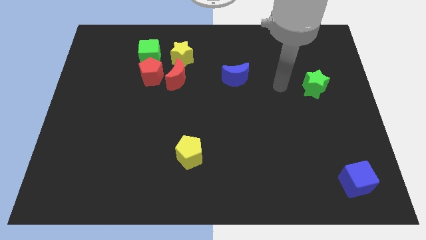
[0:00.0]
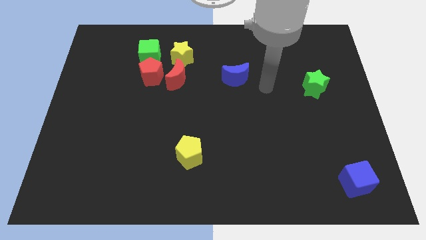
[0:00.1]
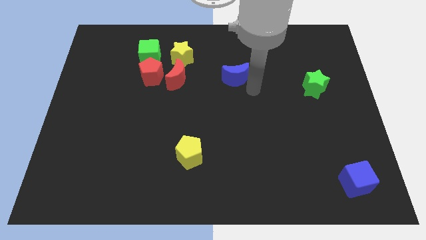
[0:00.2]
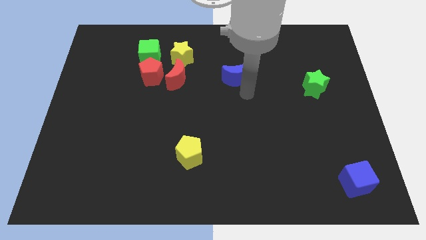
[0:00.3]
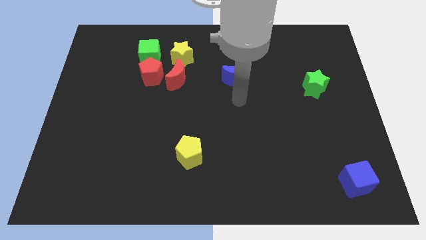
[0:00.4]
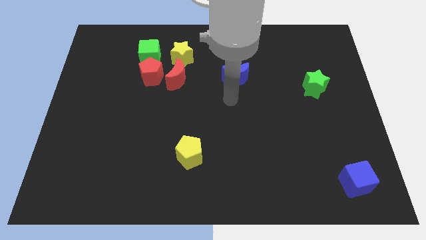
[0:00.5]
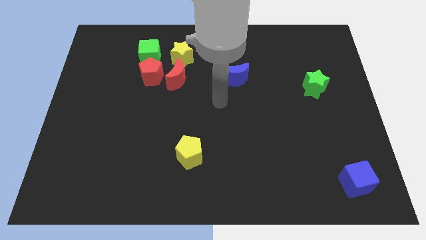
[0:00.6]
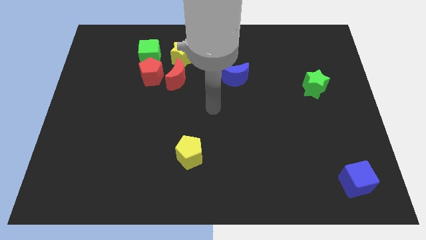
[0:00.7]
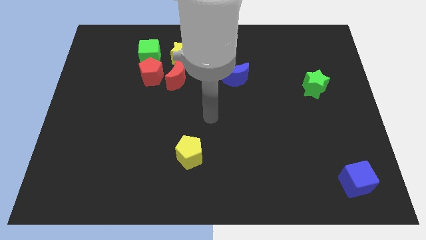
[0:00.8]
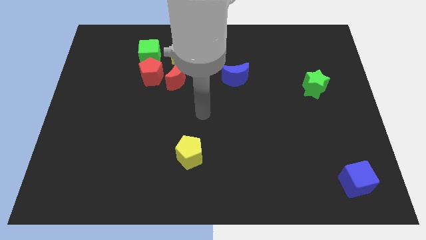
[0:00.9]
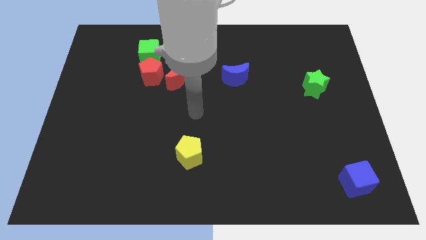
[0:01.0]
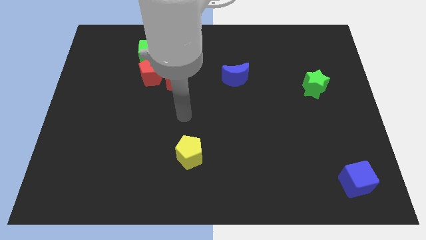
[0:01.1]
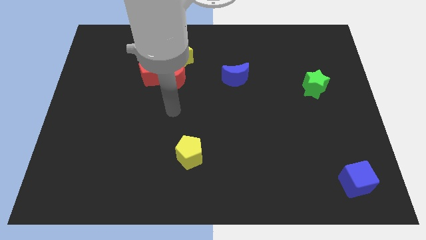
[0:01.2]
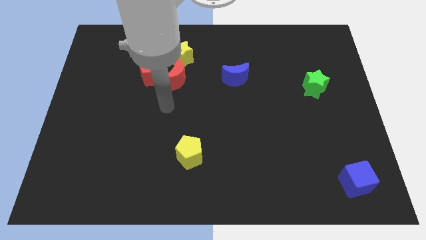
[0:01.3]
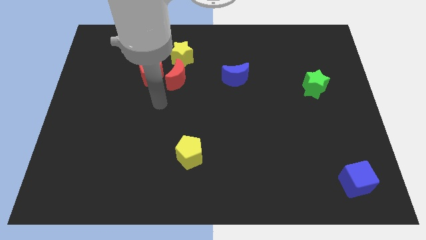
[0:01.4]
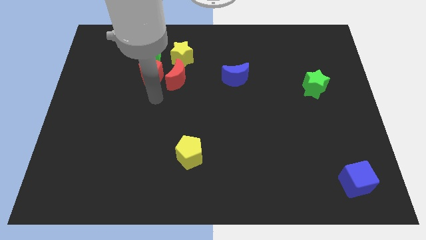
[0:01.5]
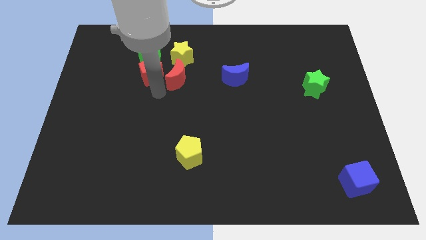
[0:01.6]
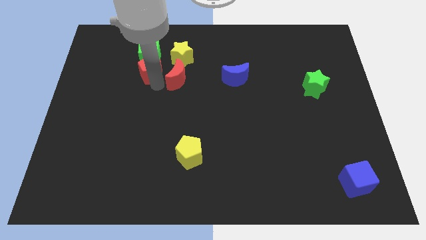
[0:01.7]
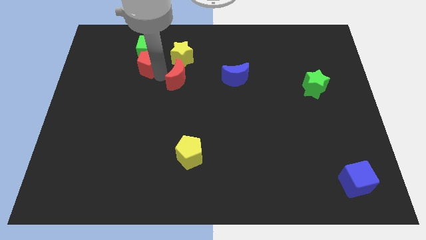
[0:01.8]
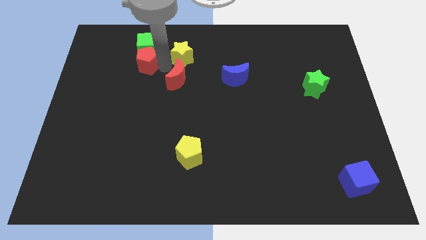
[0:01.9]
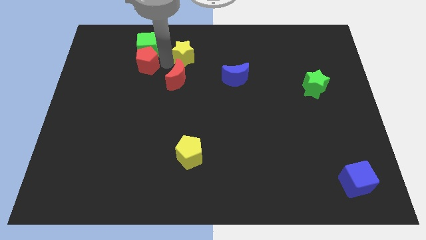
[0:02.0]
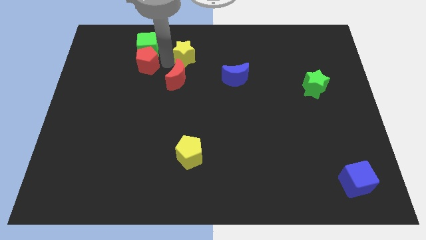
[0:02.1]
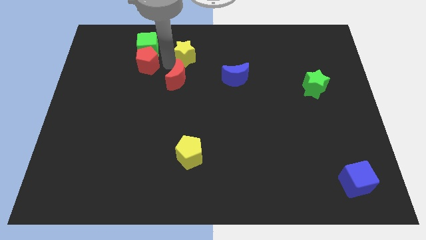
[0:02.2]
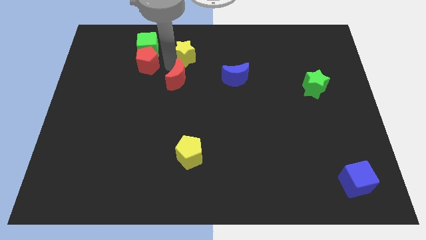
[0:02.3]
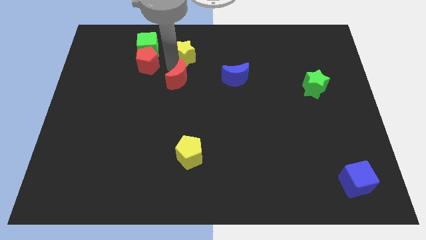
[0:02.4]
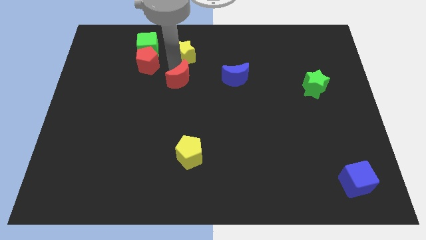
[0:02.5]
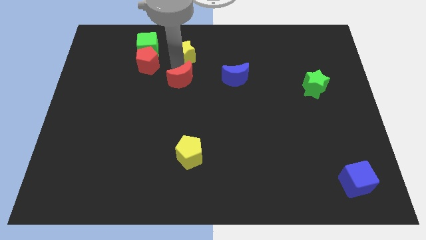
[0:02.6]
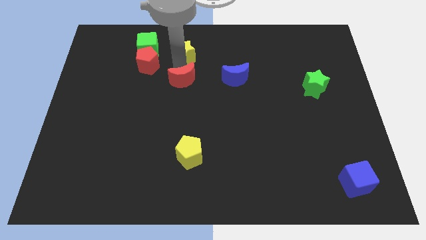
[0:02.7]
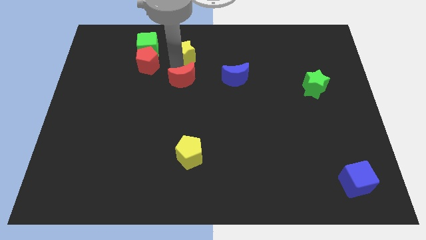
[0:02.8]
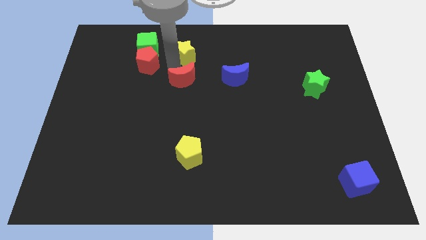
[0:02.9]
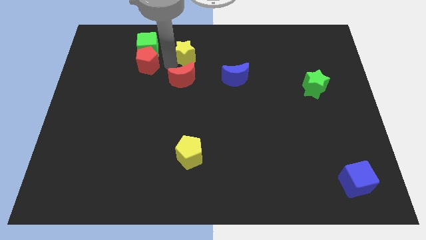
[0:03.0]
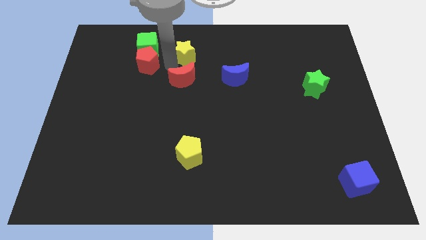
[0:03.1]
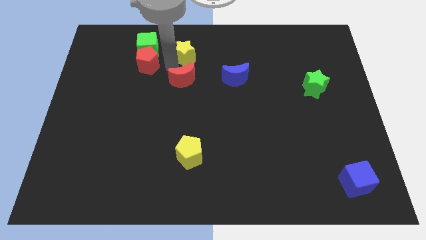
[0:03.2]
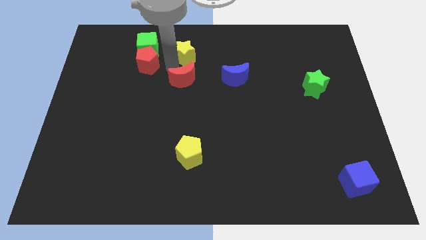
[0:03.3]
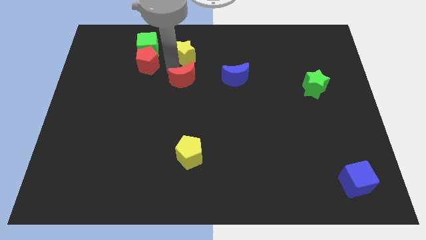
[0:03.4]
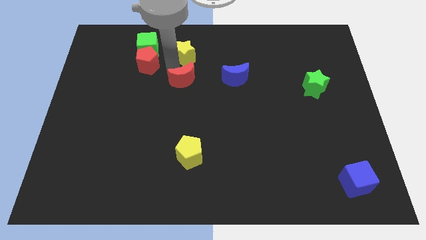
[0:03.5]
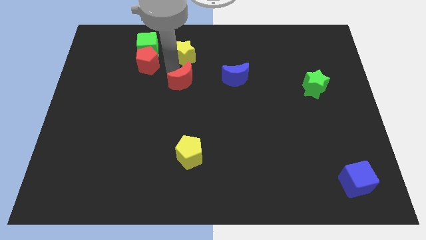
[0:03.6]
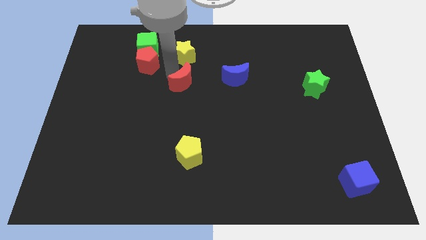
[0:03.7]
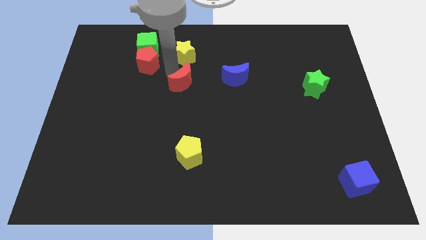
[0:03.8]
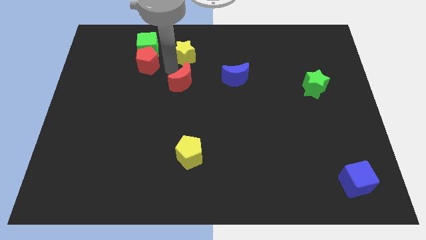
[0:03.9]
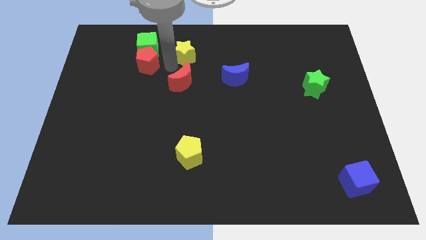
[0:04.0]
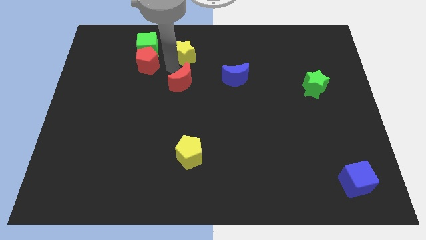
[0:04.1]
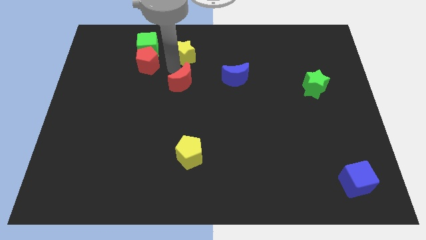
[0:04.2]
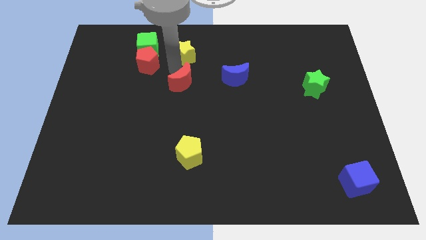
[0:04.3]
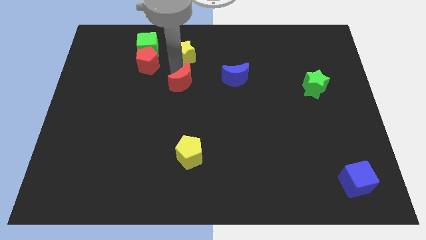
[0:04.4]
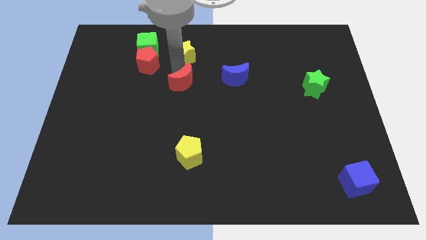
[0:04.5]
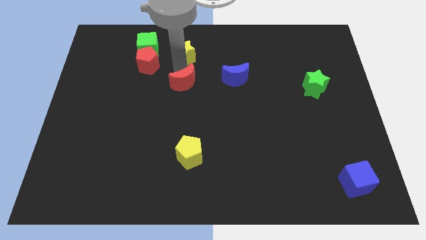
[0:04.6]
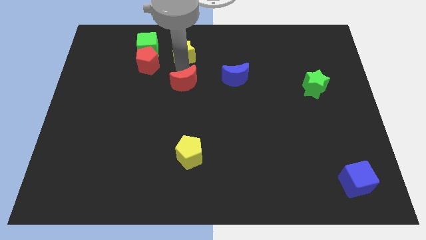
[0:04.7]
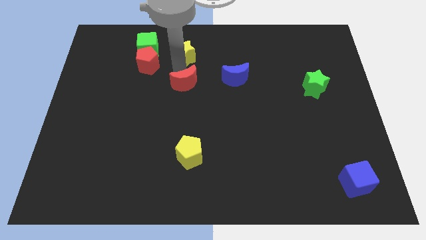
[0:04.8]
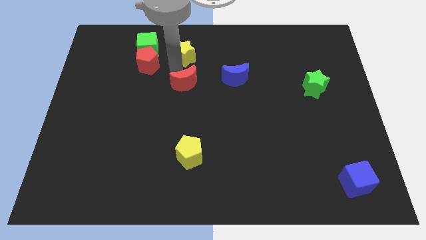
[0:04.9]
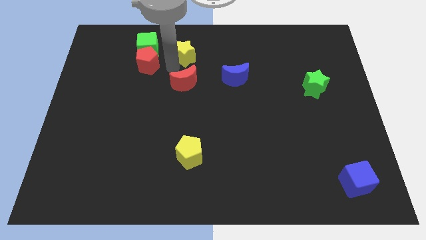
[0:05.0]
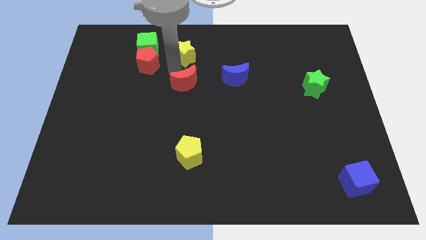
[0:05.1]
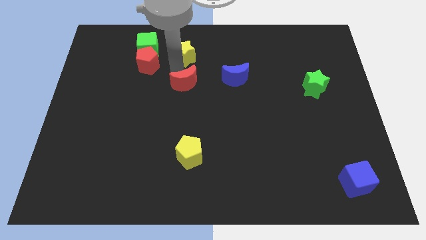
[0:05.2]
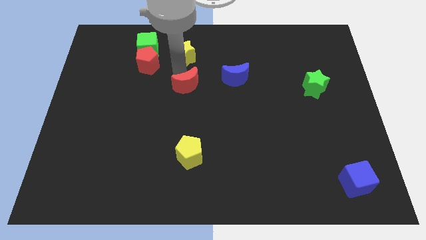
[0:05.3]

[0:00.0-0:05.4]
pull the red moon apart from the red pentagon and yellow star

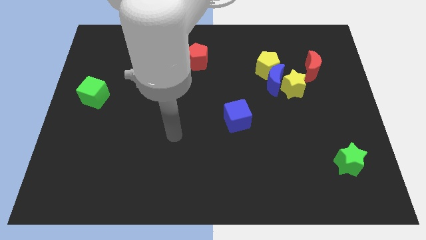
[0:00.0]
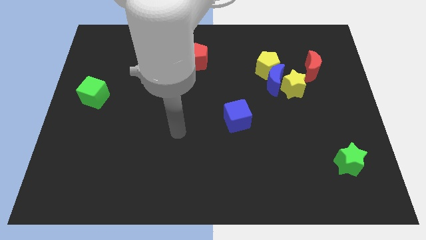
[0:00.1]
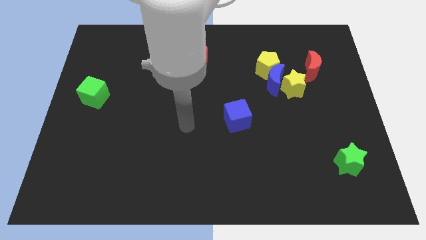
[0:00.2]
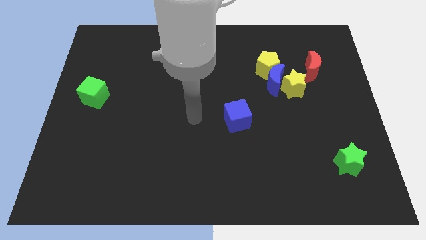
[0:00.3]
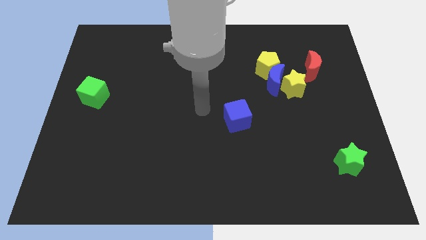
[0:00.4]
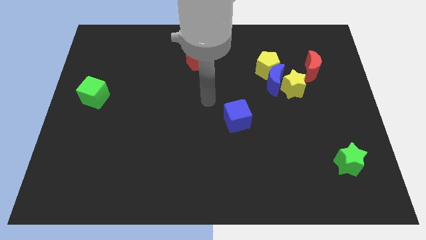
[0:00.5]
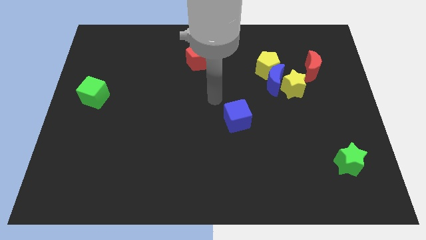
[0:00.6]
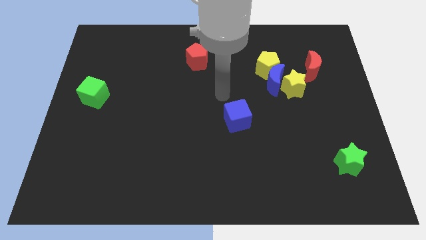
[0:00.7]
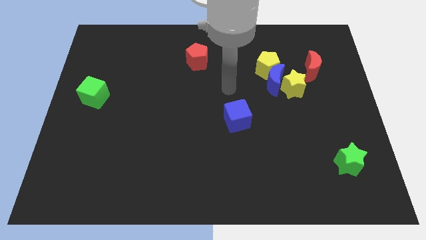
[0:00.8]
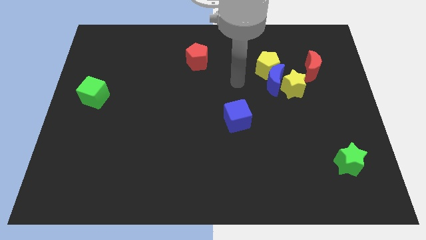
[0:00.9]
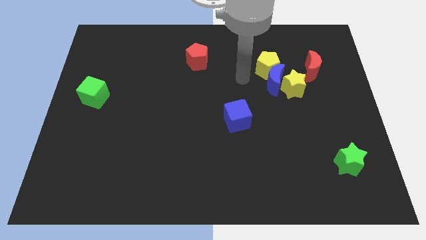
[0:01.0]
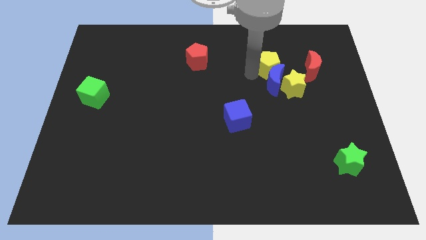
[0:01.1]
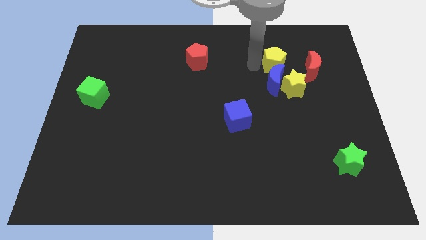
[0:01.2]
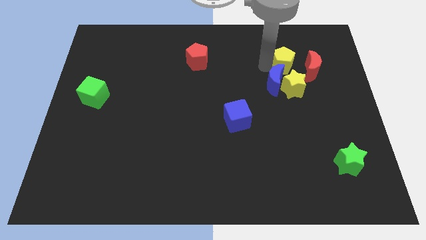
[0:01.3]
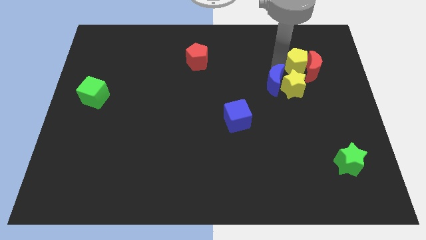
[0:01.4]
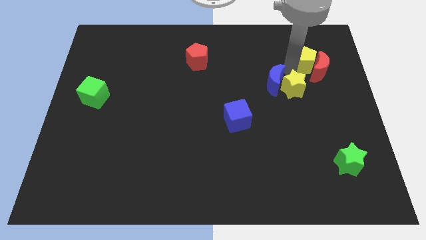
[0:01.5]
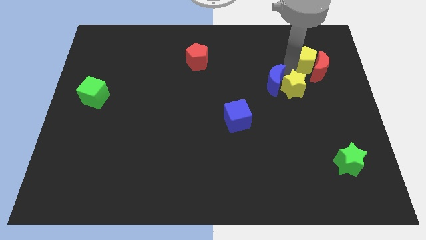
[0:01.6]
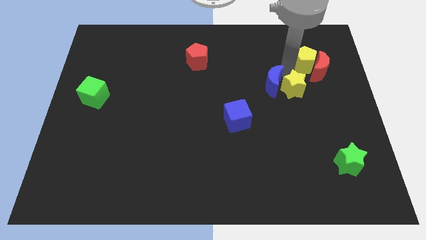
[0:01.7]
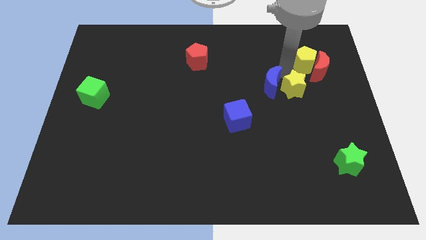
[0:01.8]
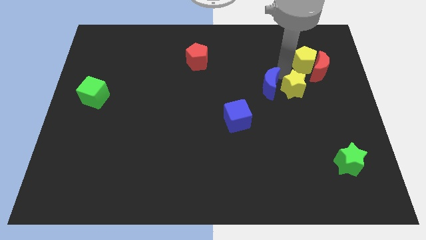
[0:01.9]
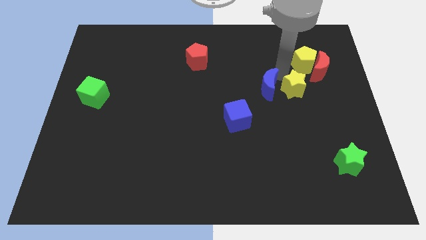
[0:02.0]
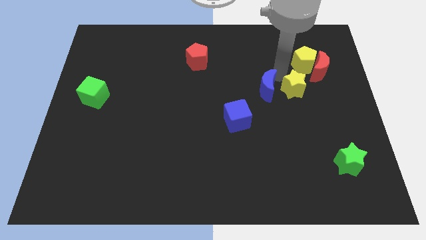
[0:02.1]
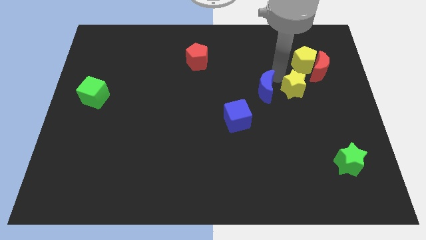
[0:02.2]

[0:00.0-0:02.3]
move the blue moon away from the yellow pentagon and yellow star

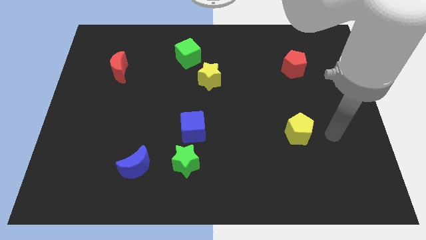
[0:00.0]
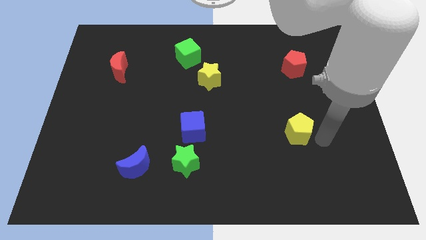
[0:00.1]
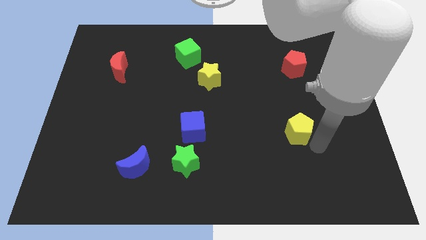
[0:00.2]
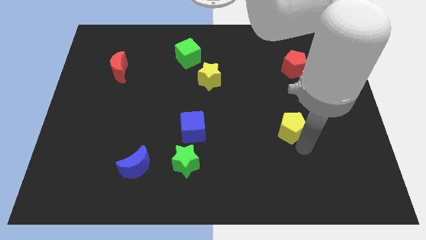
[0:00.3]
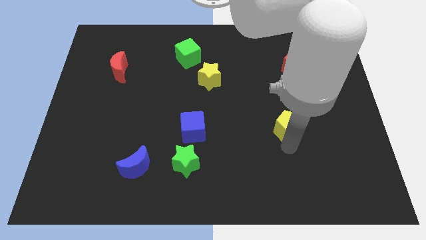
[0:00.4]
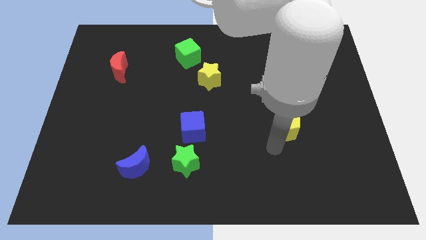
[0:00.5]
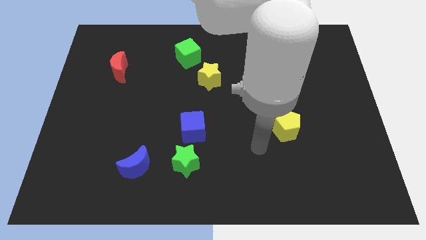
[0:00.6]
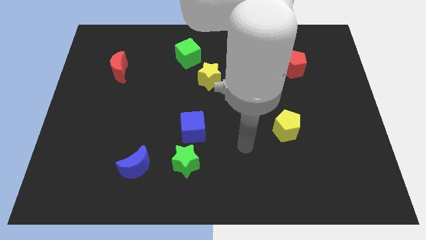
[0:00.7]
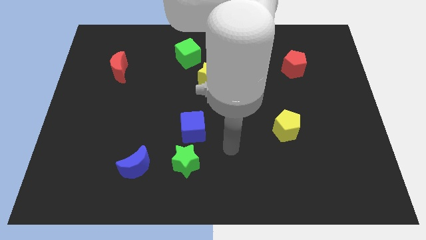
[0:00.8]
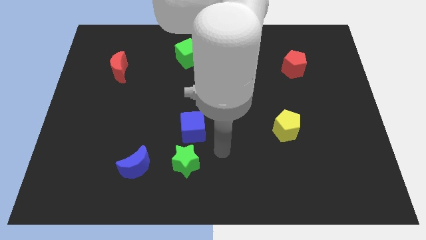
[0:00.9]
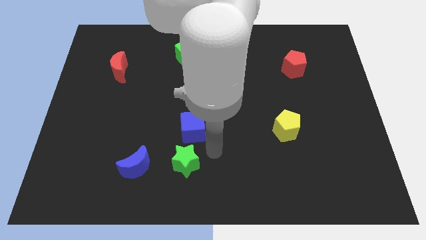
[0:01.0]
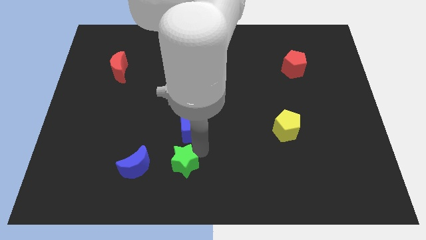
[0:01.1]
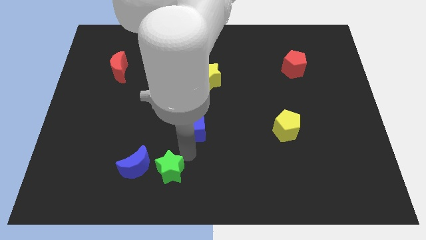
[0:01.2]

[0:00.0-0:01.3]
pull the blue cube apart from the green star

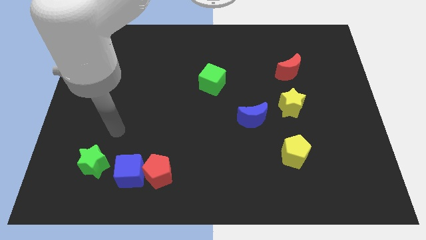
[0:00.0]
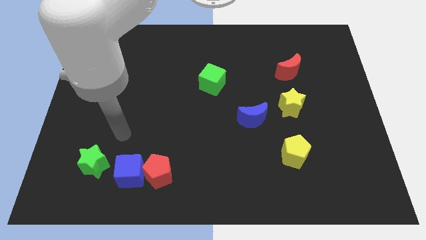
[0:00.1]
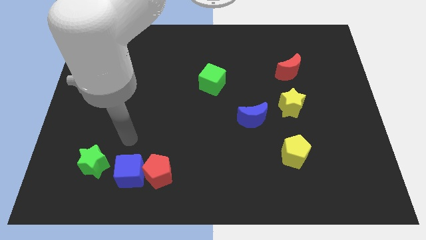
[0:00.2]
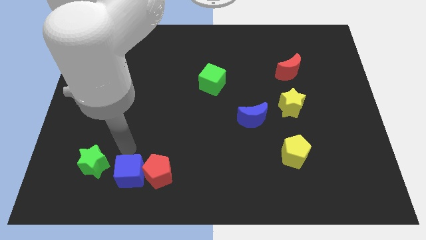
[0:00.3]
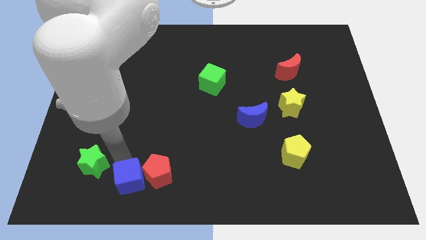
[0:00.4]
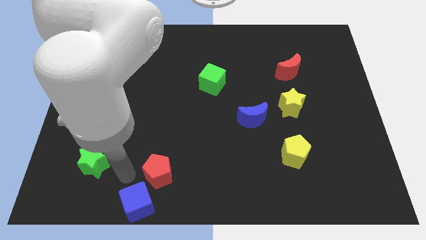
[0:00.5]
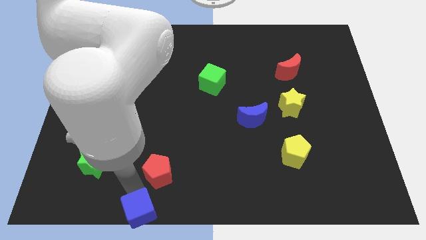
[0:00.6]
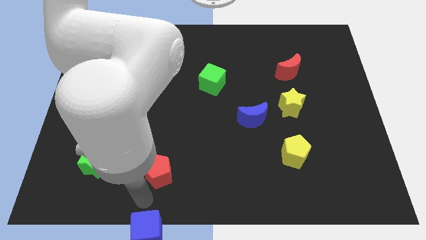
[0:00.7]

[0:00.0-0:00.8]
separate the red pentagon from the blue cube
